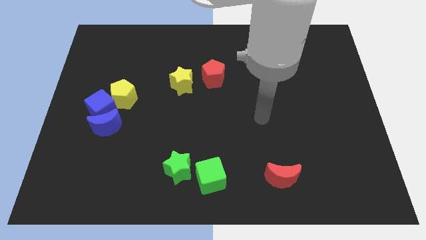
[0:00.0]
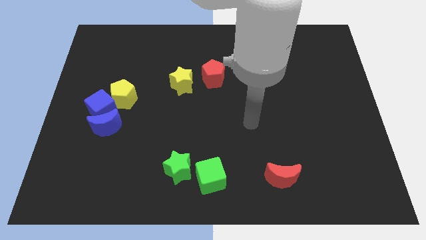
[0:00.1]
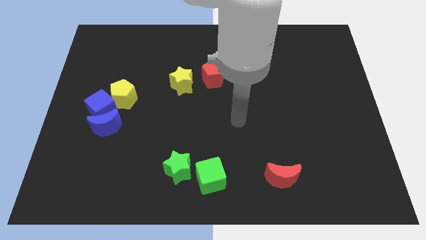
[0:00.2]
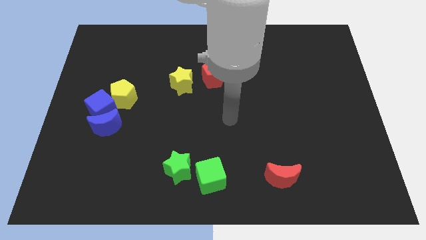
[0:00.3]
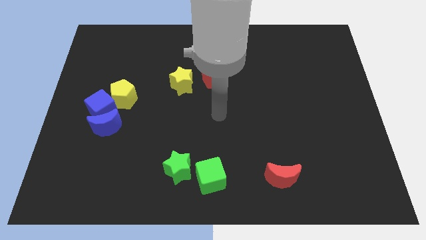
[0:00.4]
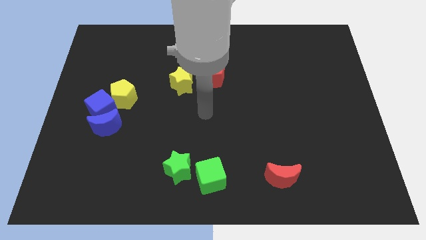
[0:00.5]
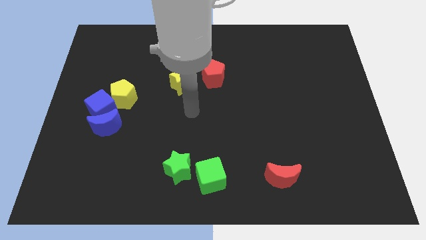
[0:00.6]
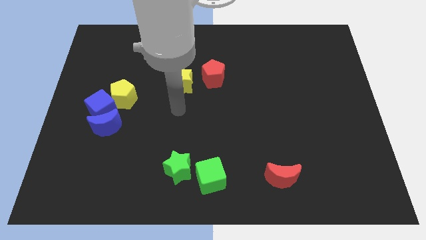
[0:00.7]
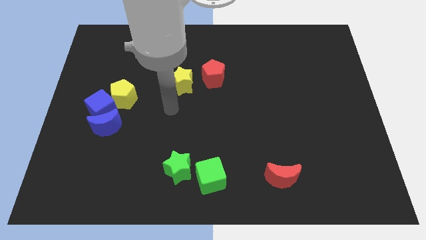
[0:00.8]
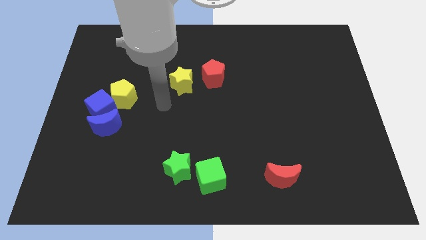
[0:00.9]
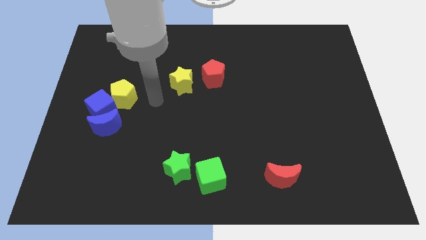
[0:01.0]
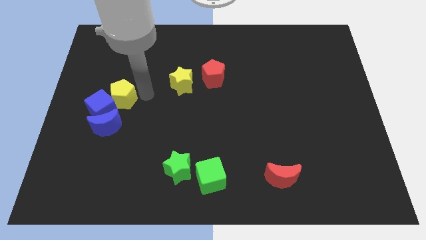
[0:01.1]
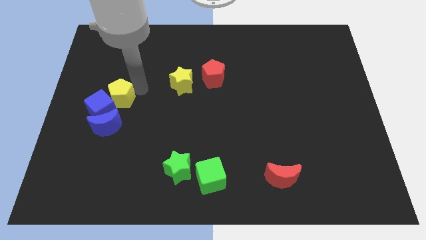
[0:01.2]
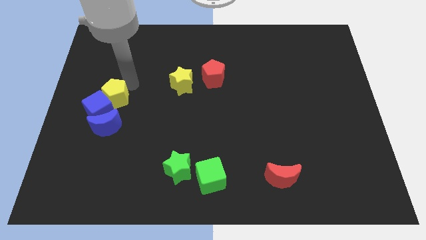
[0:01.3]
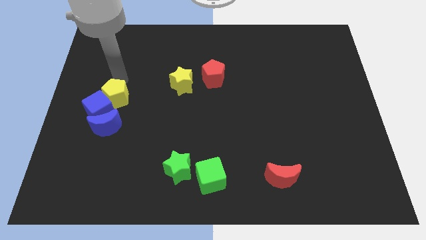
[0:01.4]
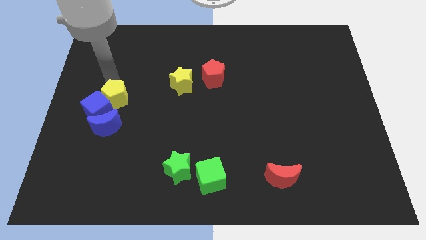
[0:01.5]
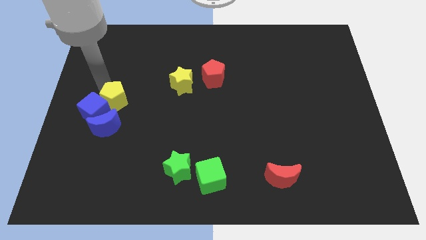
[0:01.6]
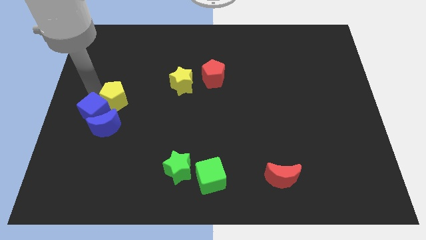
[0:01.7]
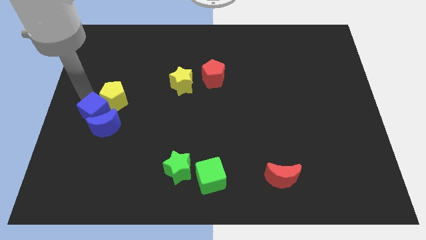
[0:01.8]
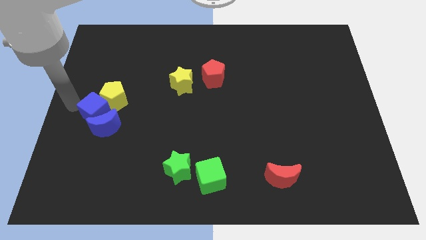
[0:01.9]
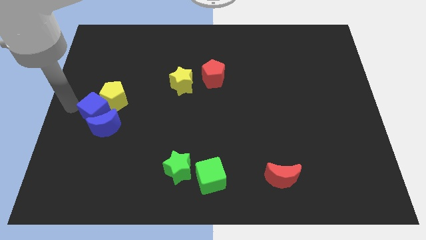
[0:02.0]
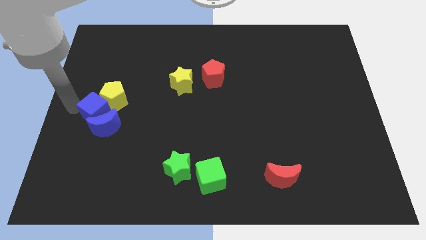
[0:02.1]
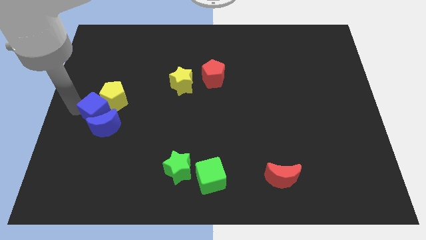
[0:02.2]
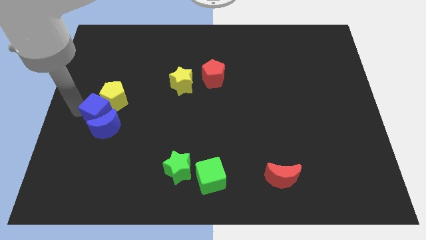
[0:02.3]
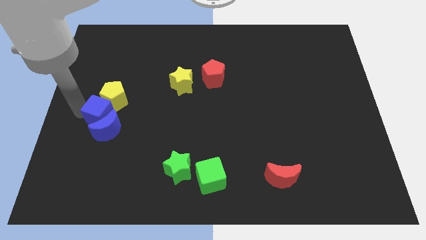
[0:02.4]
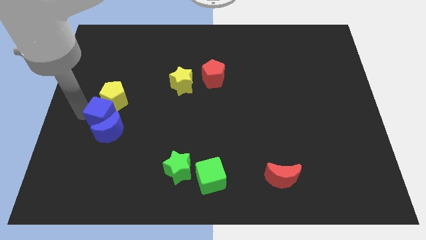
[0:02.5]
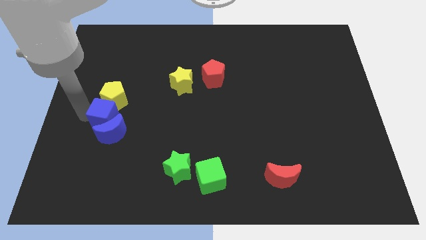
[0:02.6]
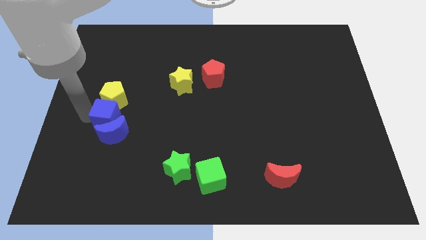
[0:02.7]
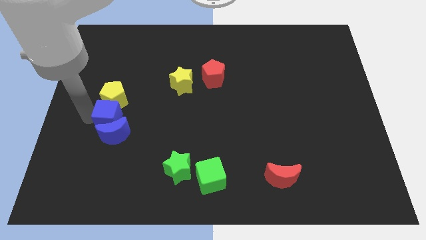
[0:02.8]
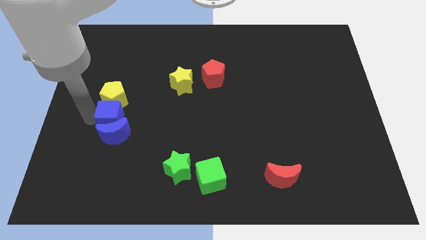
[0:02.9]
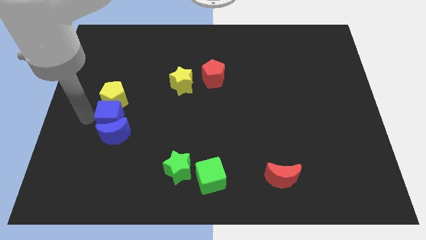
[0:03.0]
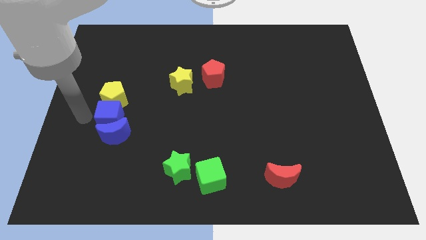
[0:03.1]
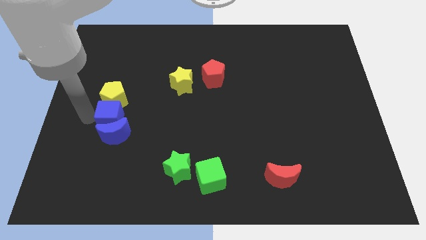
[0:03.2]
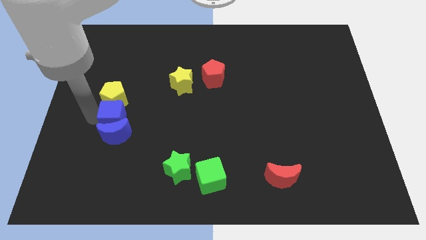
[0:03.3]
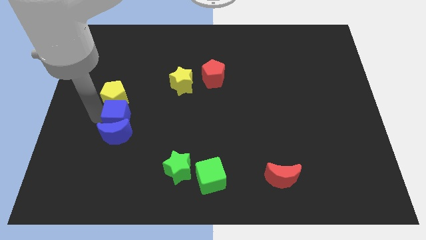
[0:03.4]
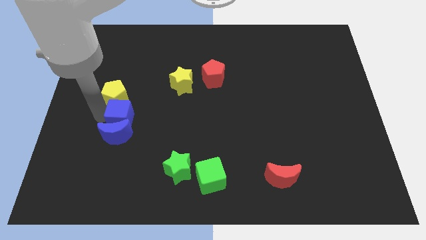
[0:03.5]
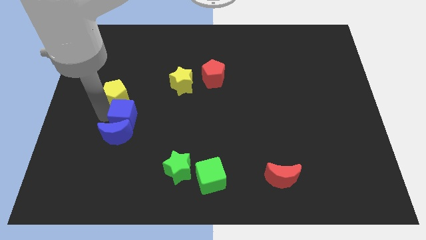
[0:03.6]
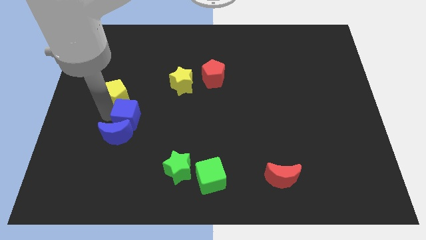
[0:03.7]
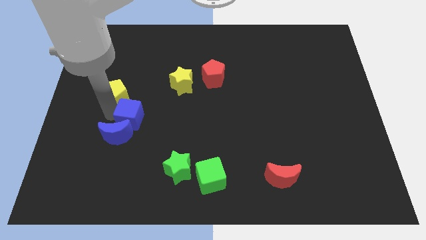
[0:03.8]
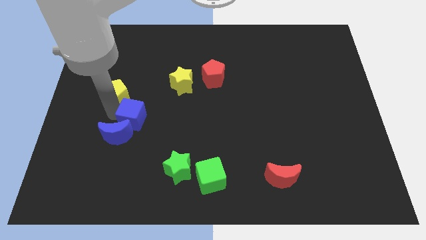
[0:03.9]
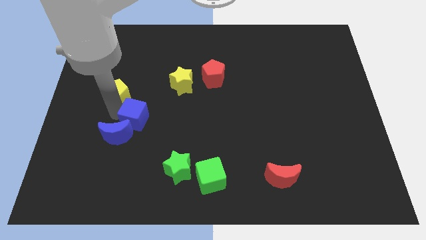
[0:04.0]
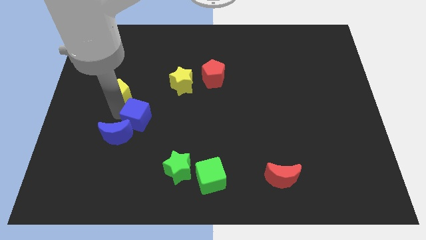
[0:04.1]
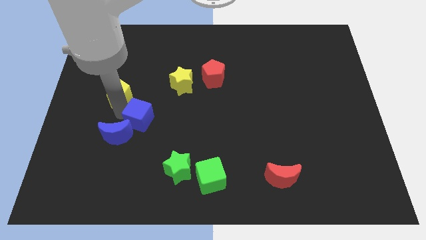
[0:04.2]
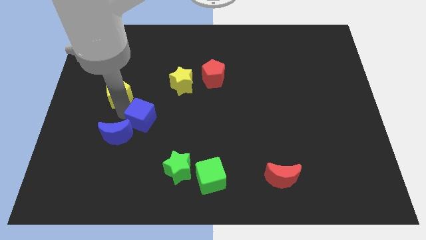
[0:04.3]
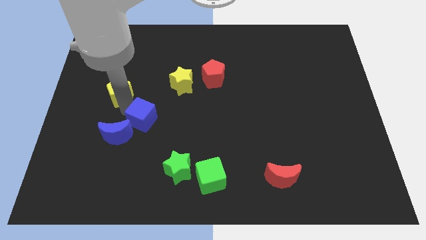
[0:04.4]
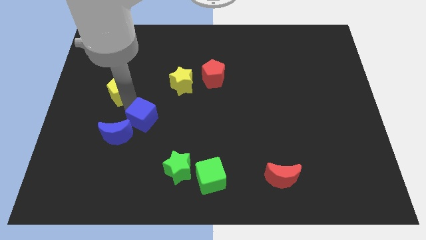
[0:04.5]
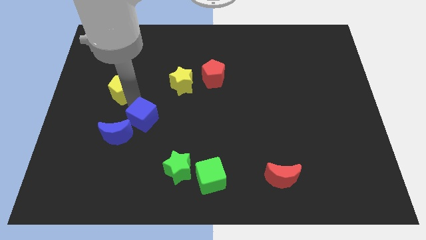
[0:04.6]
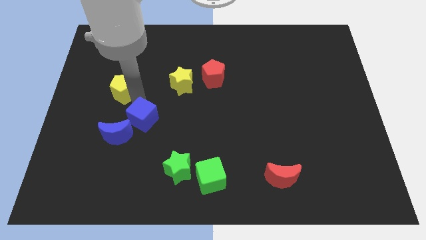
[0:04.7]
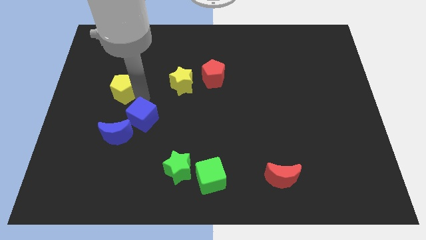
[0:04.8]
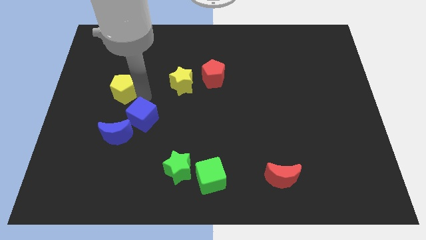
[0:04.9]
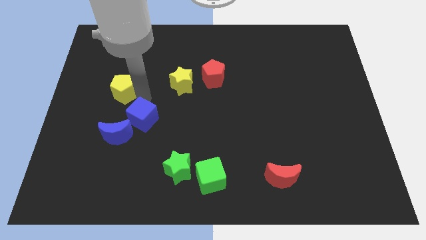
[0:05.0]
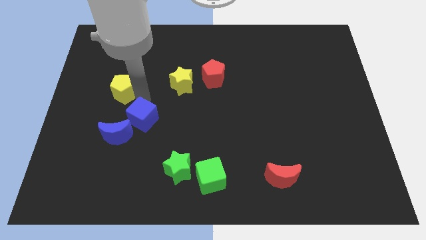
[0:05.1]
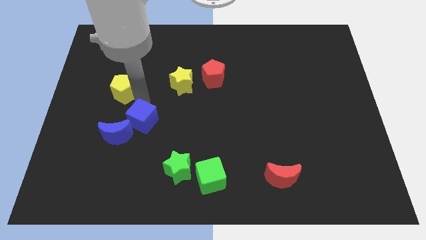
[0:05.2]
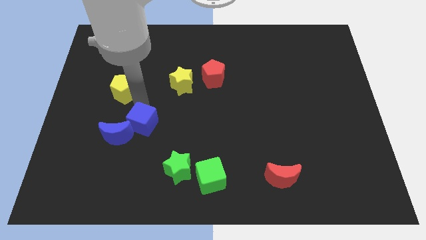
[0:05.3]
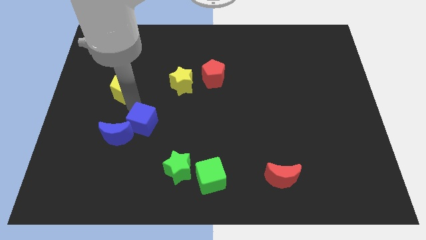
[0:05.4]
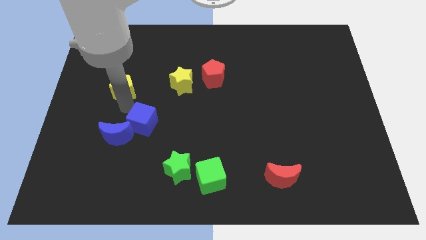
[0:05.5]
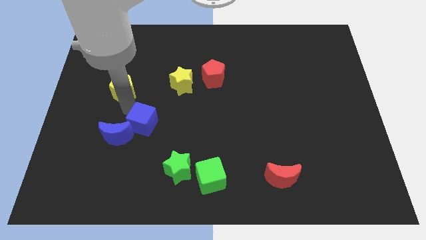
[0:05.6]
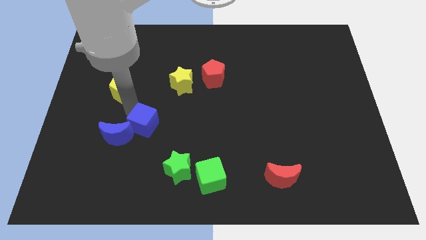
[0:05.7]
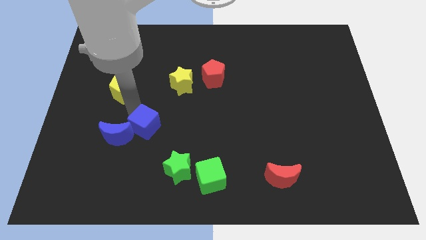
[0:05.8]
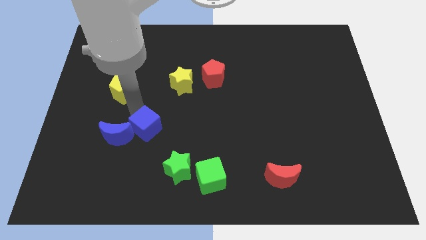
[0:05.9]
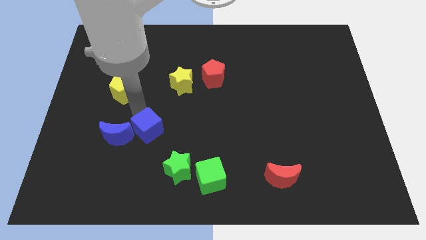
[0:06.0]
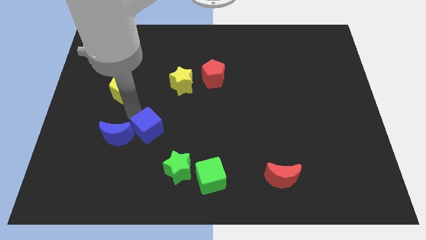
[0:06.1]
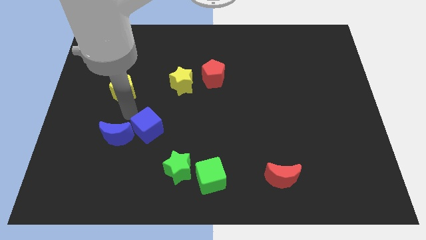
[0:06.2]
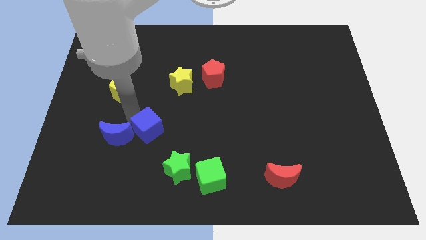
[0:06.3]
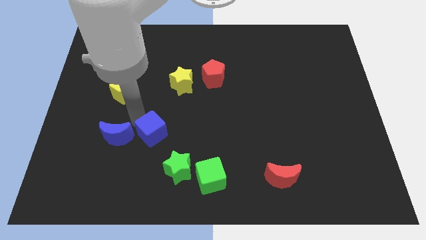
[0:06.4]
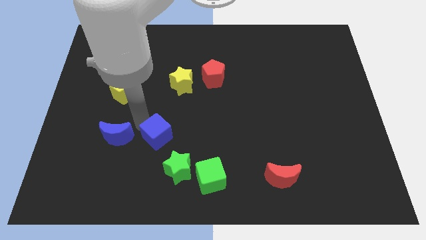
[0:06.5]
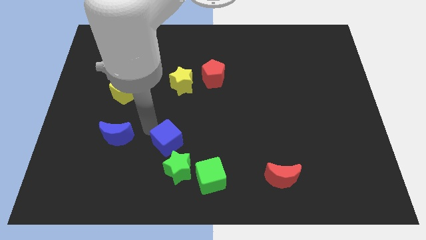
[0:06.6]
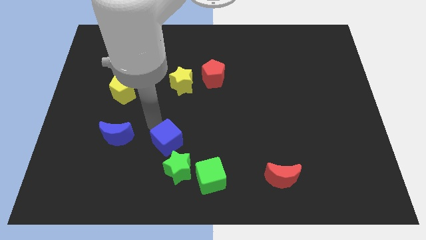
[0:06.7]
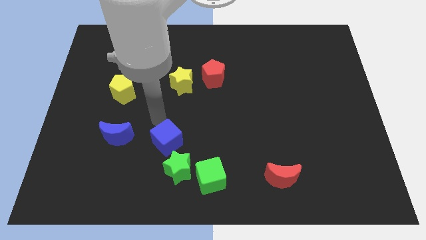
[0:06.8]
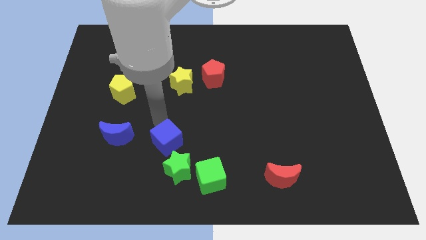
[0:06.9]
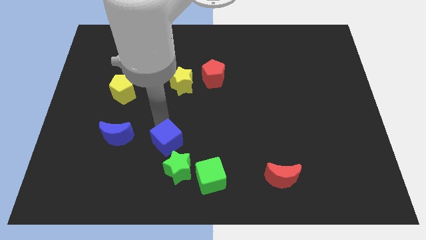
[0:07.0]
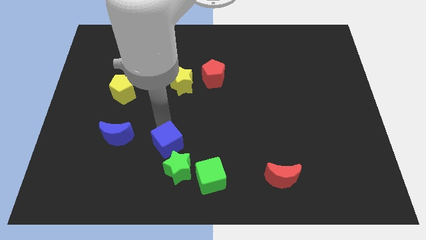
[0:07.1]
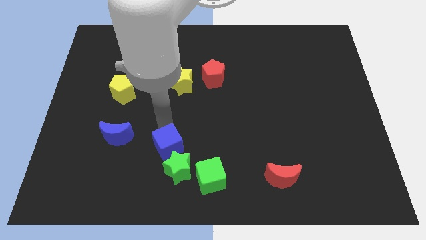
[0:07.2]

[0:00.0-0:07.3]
slide the blue cube to the green star
